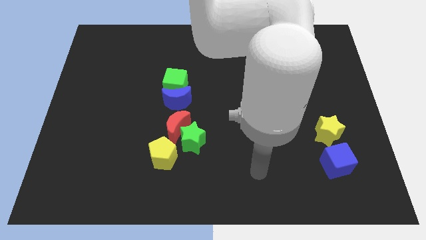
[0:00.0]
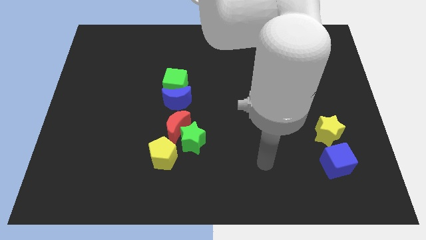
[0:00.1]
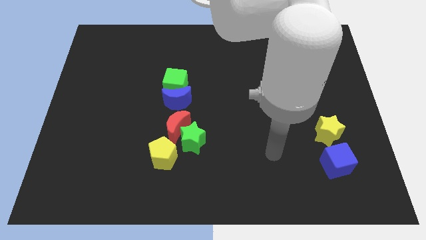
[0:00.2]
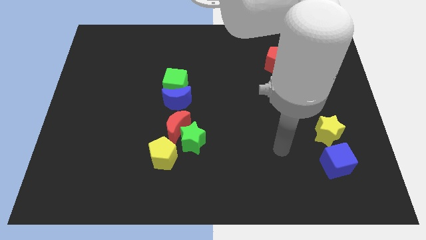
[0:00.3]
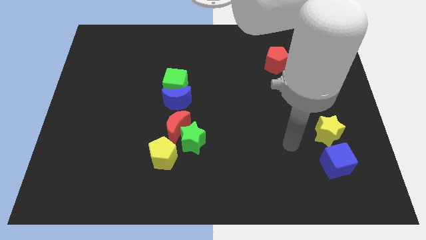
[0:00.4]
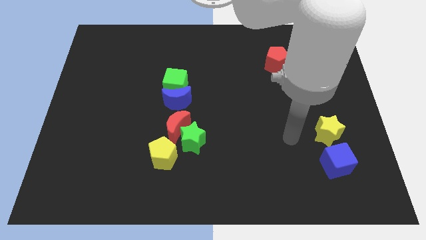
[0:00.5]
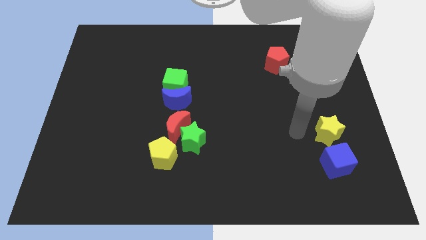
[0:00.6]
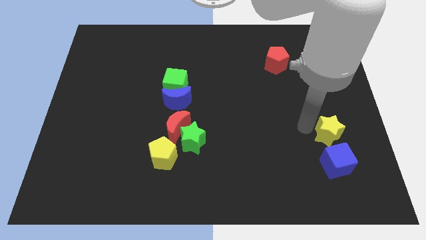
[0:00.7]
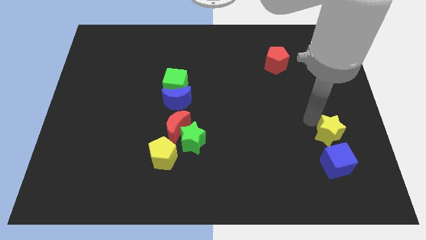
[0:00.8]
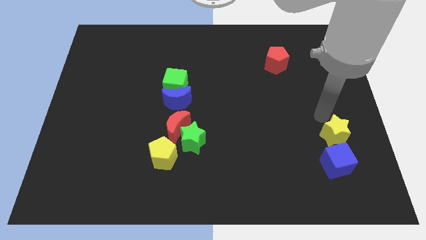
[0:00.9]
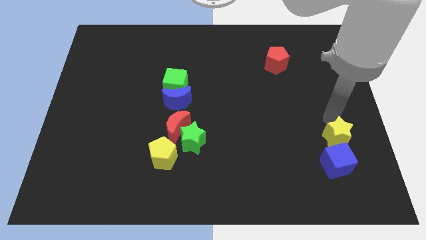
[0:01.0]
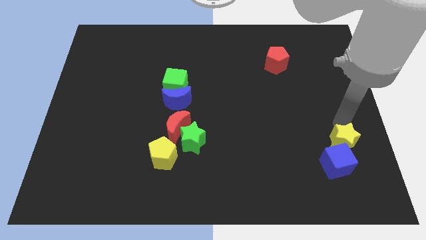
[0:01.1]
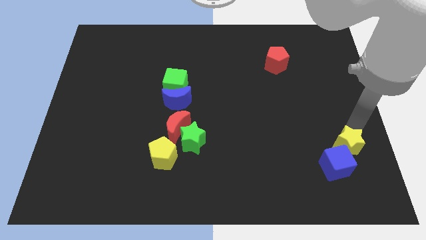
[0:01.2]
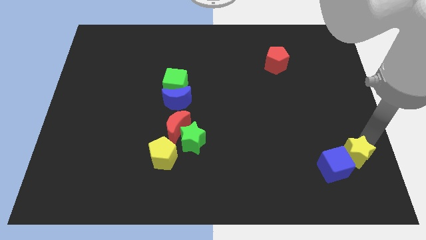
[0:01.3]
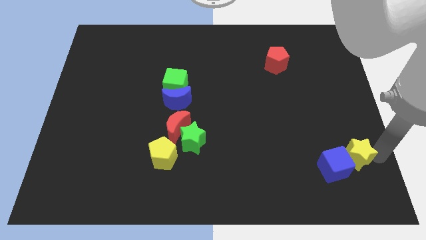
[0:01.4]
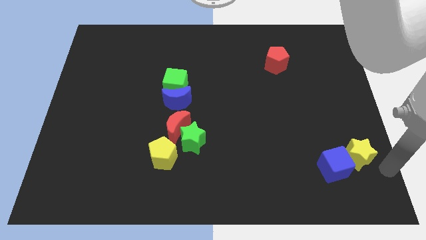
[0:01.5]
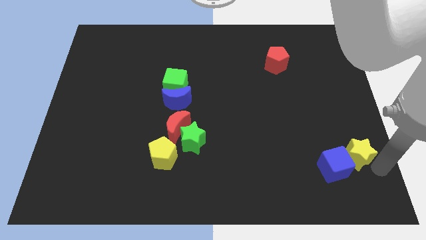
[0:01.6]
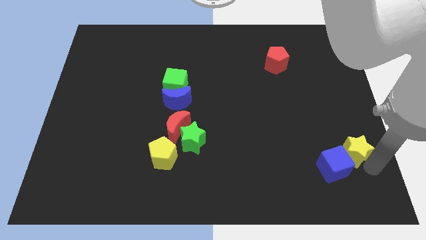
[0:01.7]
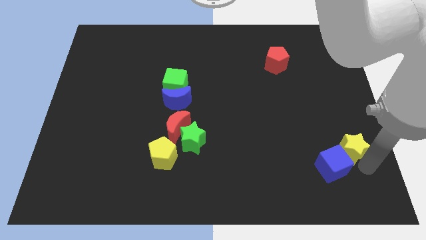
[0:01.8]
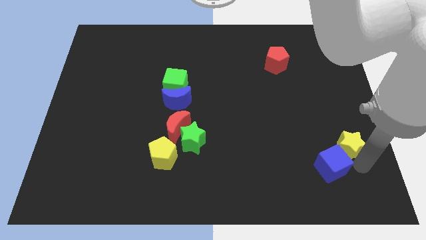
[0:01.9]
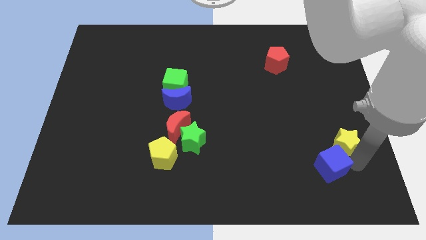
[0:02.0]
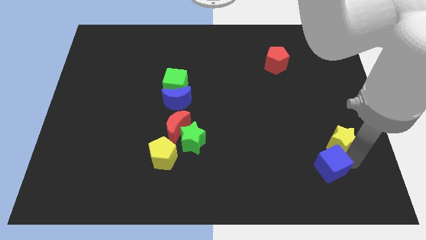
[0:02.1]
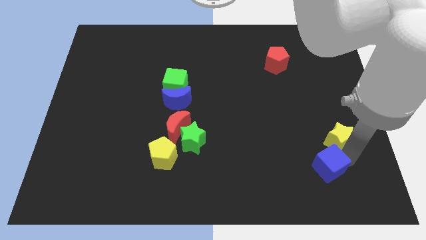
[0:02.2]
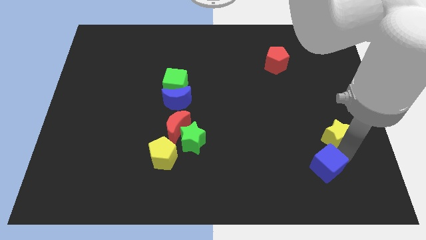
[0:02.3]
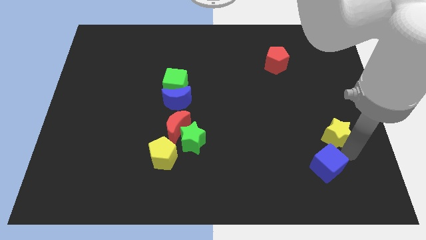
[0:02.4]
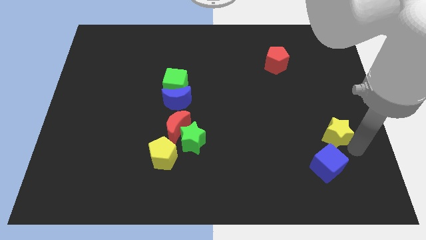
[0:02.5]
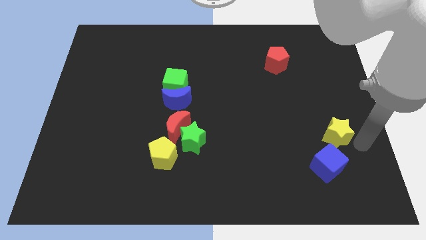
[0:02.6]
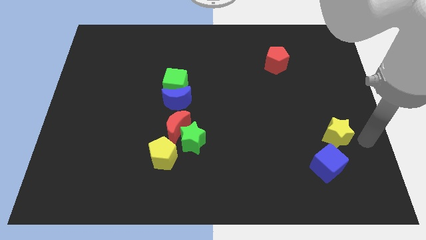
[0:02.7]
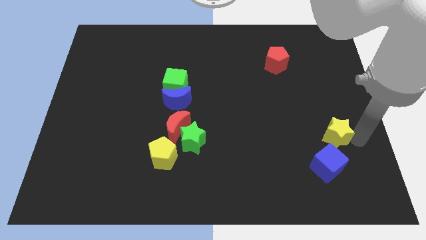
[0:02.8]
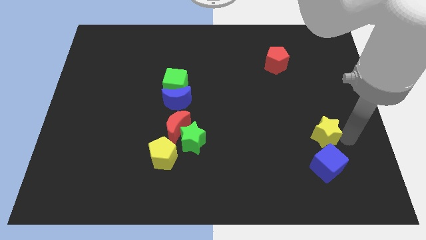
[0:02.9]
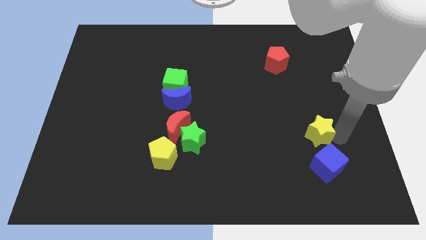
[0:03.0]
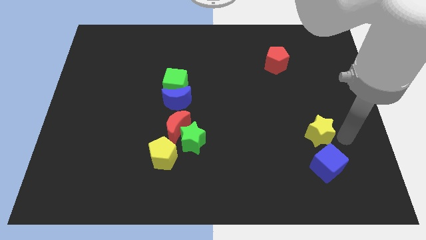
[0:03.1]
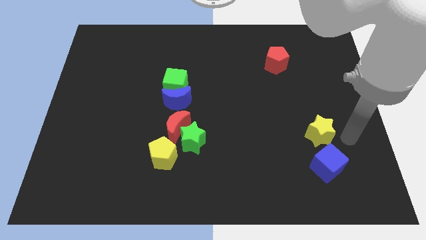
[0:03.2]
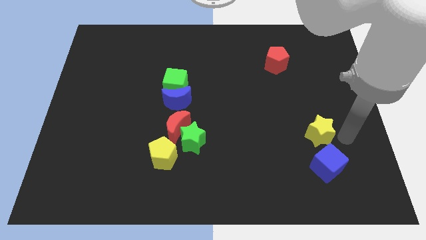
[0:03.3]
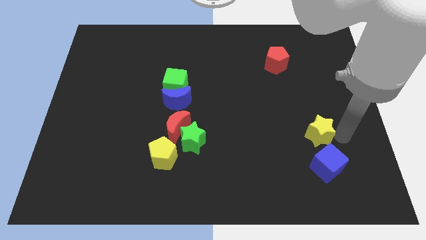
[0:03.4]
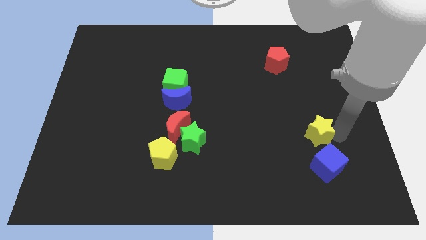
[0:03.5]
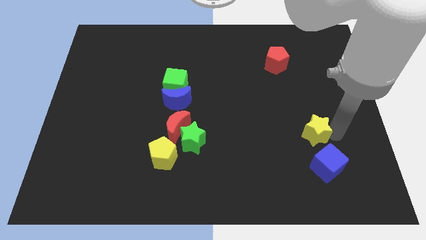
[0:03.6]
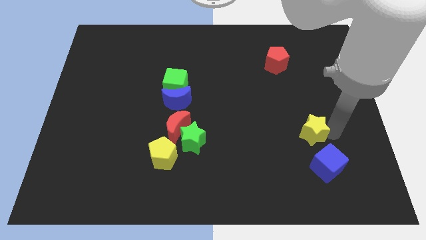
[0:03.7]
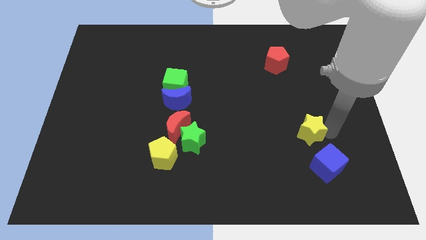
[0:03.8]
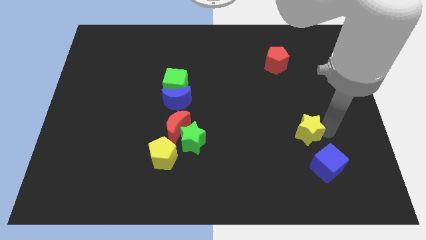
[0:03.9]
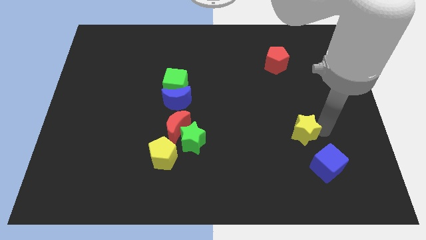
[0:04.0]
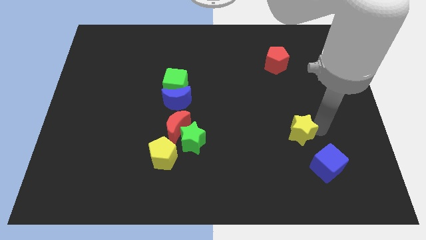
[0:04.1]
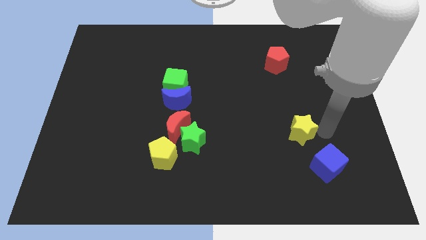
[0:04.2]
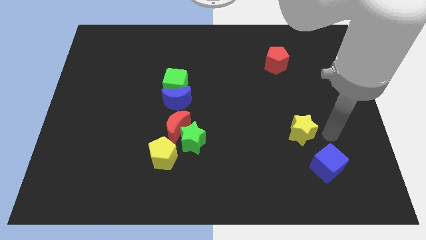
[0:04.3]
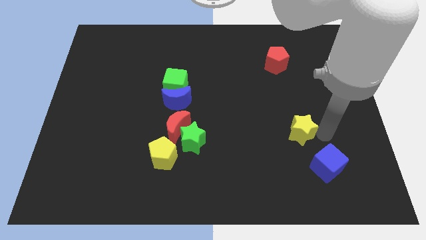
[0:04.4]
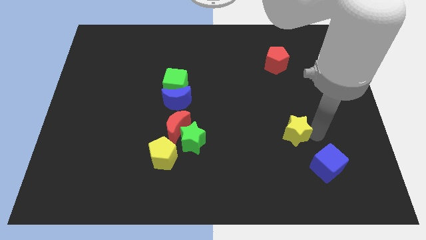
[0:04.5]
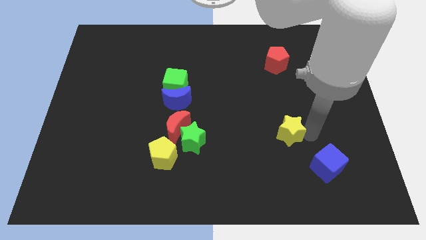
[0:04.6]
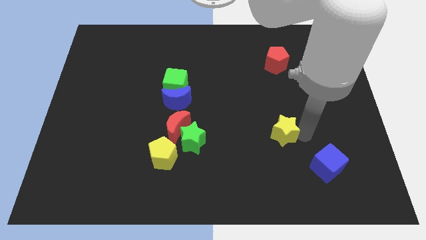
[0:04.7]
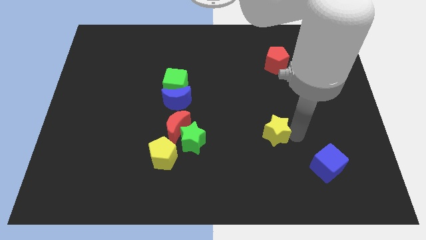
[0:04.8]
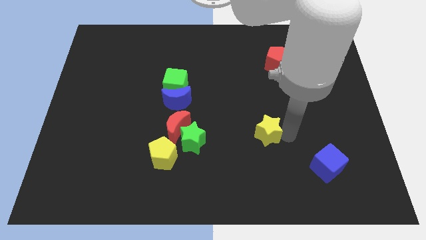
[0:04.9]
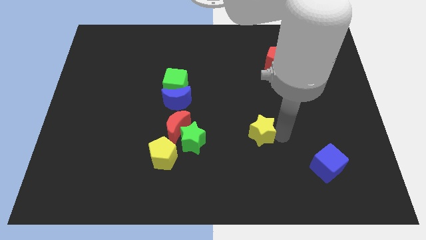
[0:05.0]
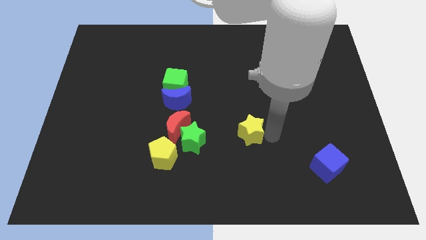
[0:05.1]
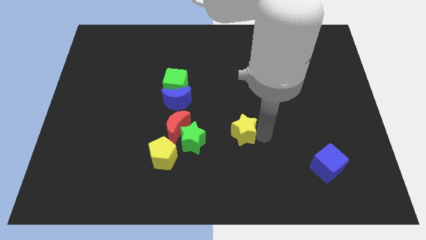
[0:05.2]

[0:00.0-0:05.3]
push the yellow star right of the red moon

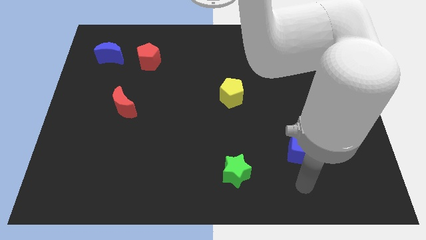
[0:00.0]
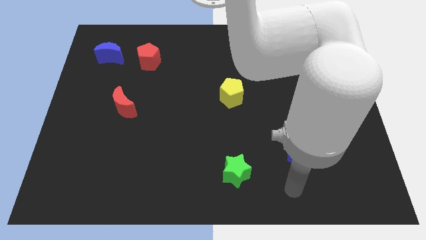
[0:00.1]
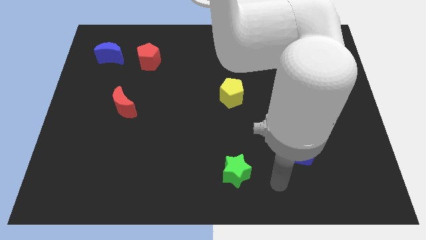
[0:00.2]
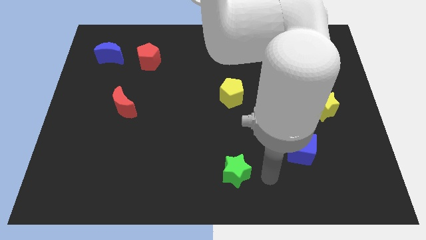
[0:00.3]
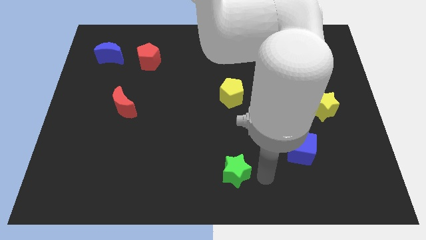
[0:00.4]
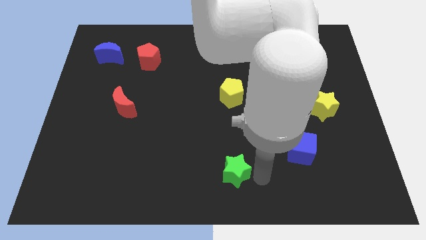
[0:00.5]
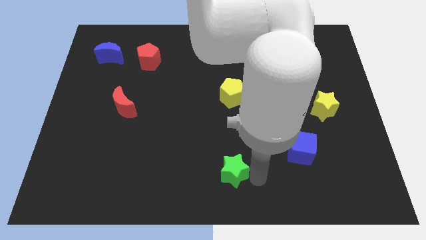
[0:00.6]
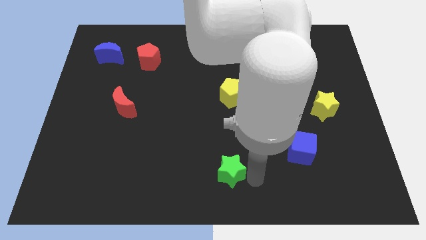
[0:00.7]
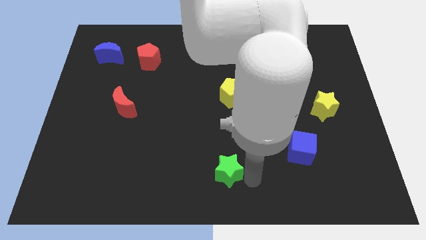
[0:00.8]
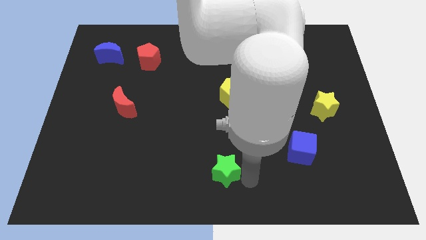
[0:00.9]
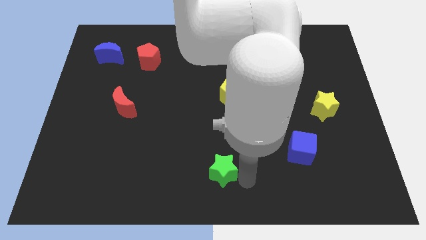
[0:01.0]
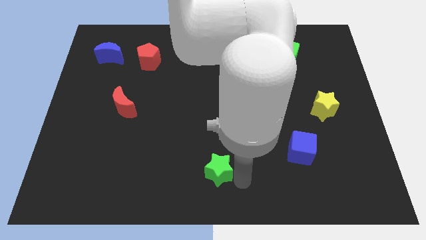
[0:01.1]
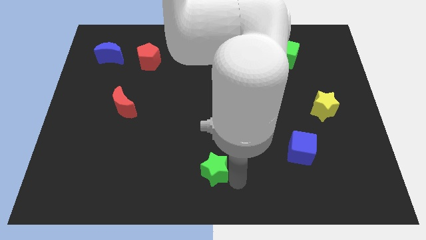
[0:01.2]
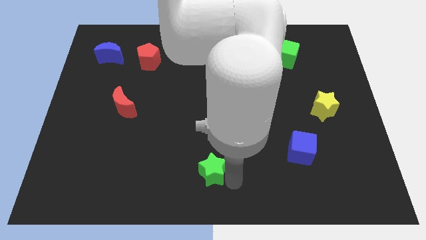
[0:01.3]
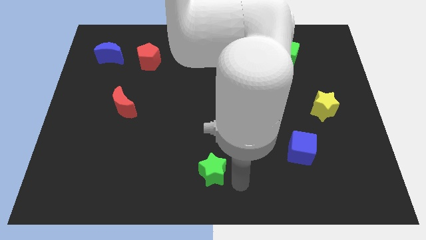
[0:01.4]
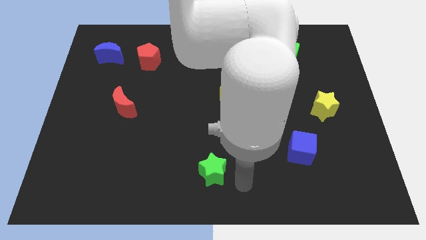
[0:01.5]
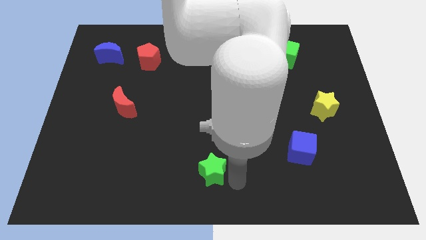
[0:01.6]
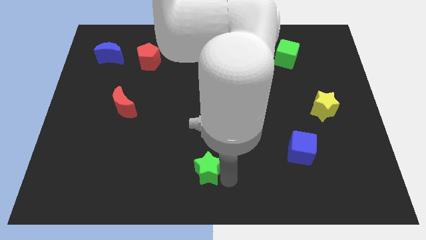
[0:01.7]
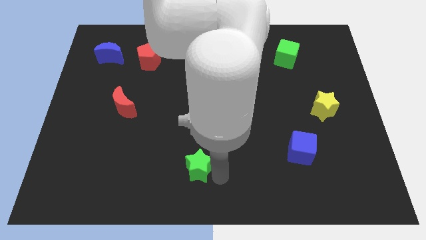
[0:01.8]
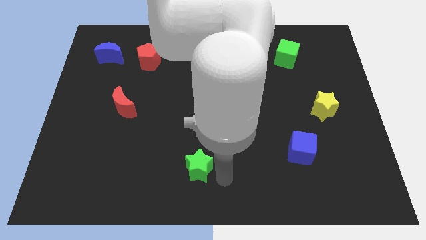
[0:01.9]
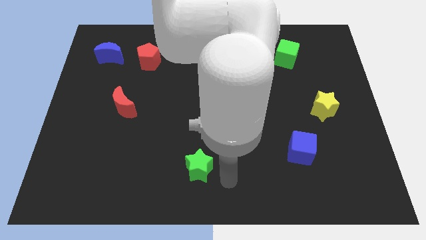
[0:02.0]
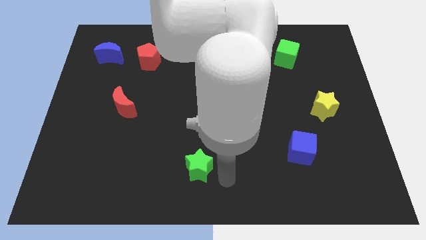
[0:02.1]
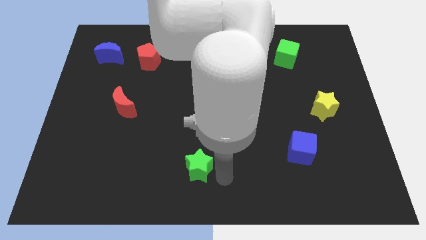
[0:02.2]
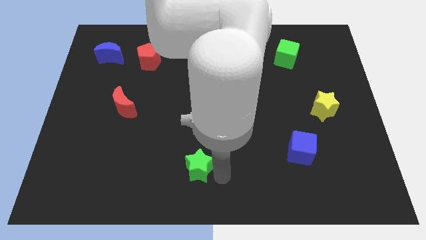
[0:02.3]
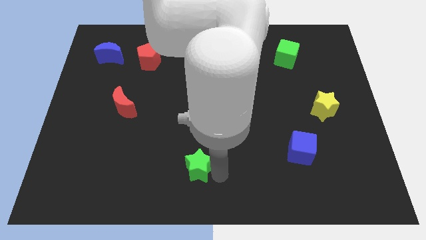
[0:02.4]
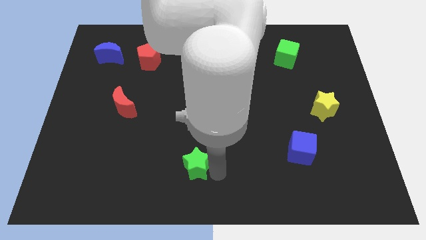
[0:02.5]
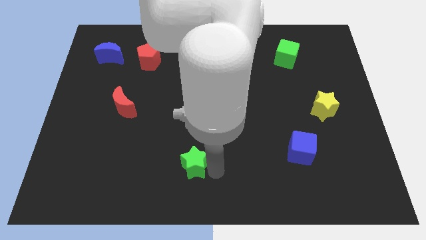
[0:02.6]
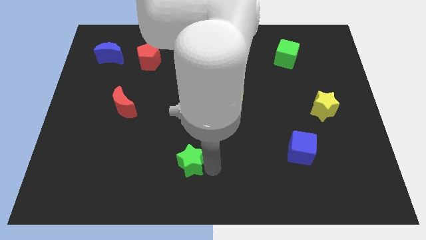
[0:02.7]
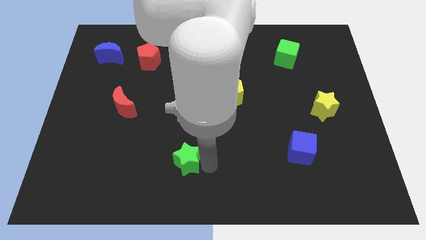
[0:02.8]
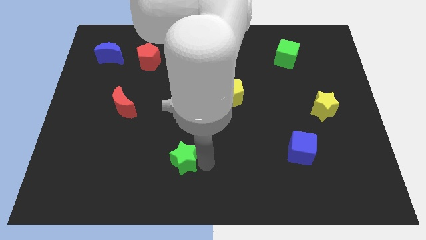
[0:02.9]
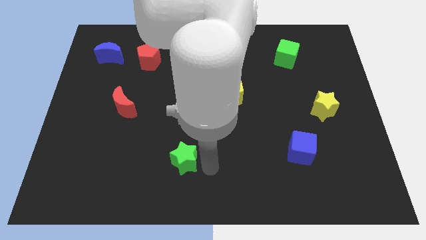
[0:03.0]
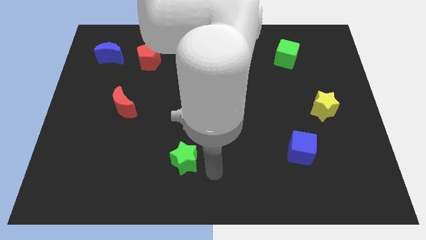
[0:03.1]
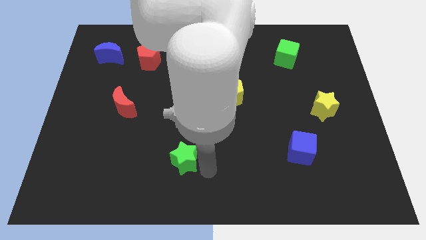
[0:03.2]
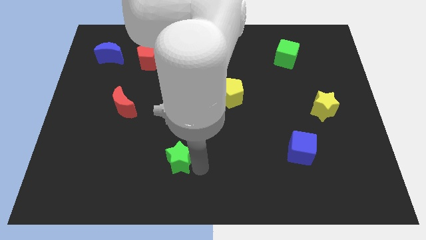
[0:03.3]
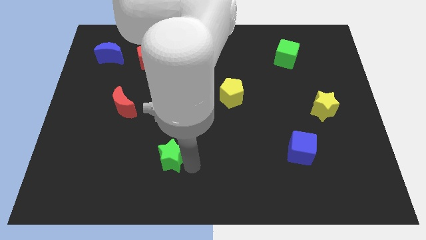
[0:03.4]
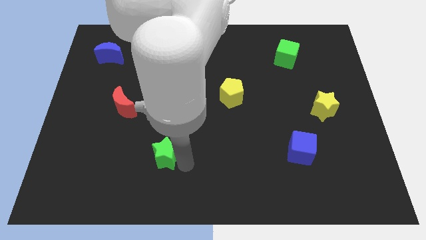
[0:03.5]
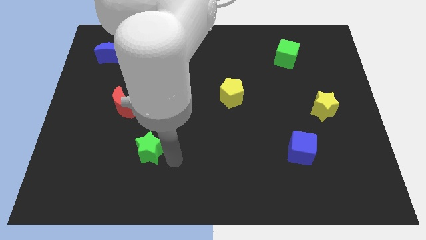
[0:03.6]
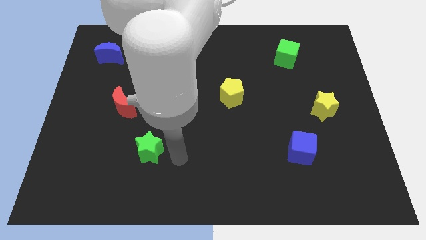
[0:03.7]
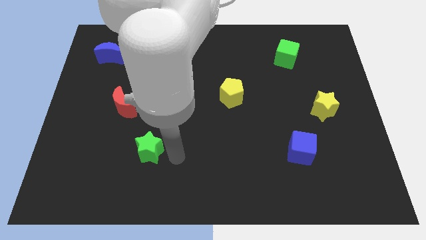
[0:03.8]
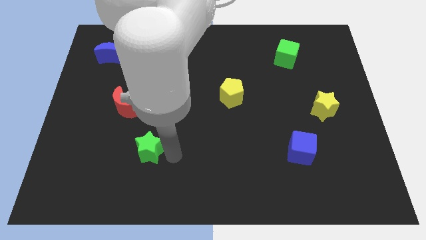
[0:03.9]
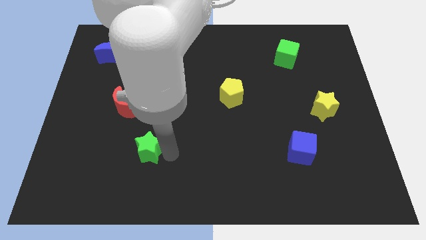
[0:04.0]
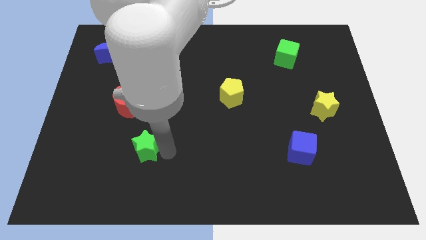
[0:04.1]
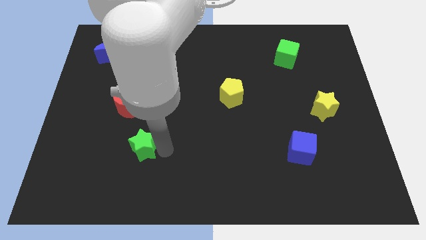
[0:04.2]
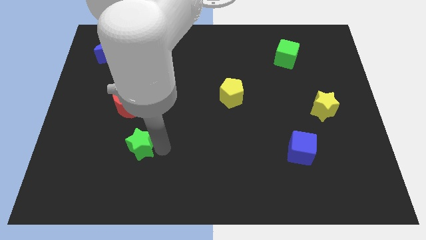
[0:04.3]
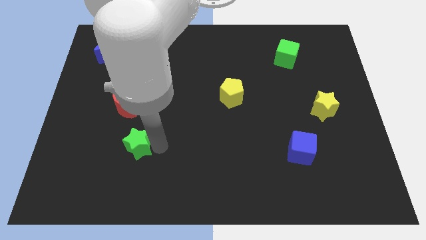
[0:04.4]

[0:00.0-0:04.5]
push the green star to the bottom of the red moon
